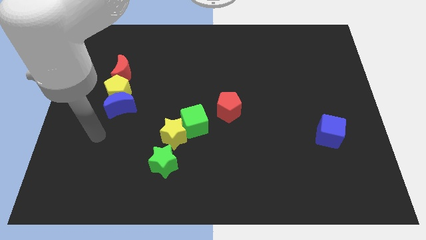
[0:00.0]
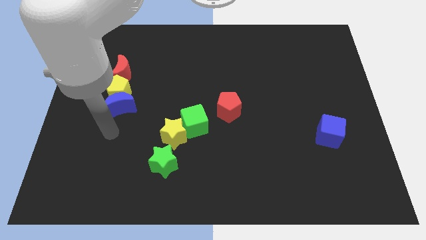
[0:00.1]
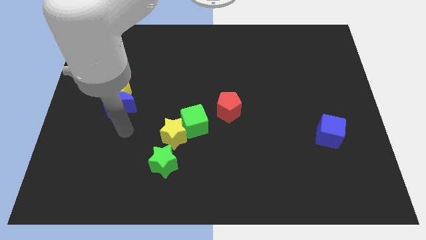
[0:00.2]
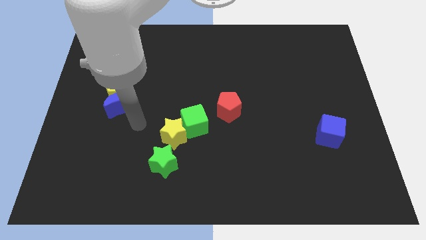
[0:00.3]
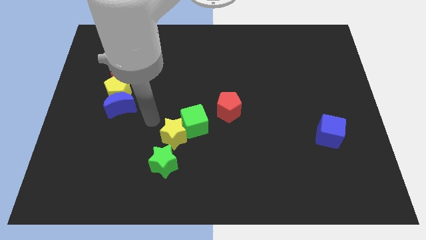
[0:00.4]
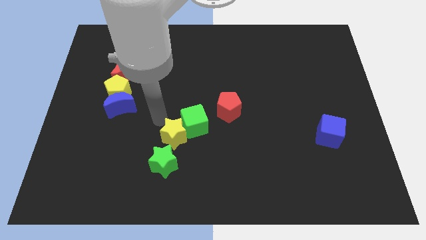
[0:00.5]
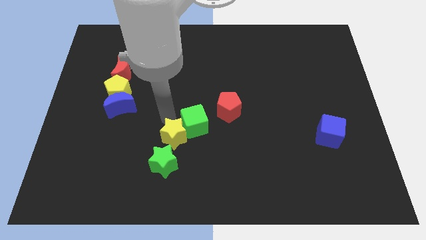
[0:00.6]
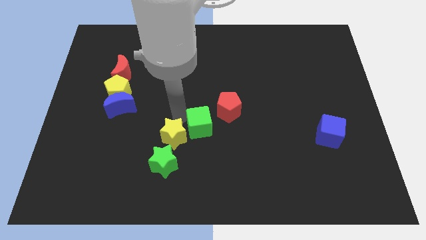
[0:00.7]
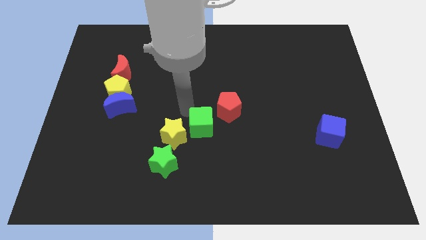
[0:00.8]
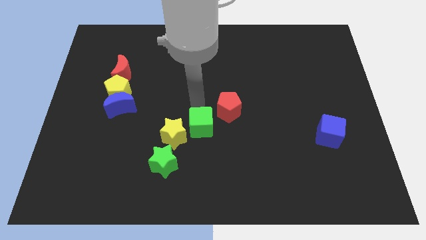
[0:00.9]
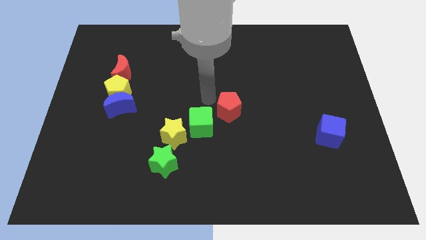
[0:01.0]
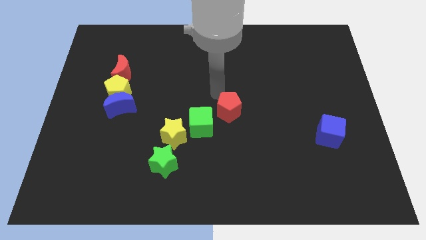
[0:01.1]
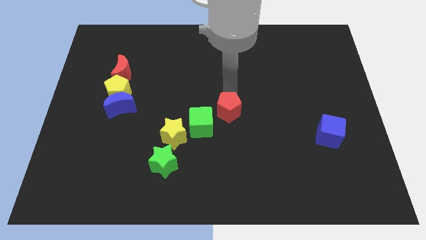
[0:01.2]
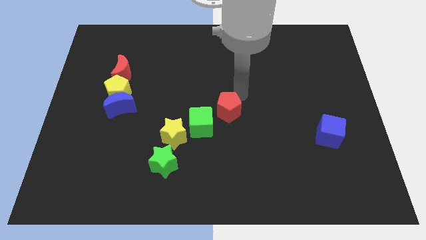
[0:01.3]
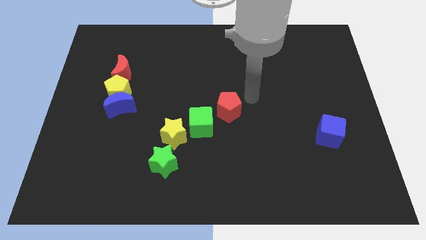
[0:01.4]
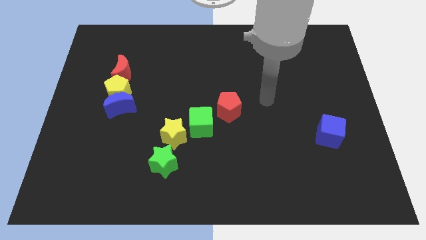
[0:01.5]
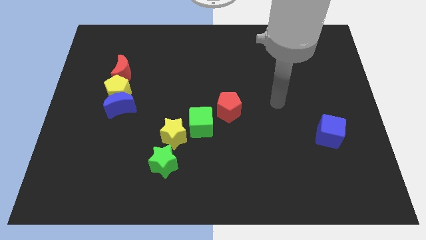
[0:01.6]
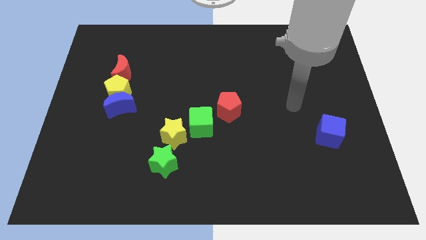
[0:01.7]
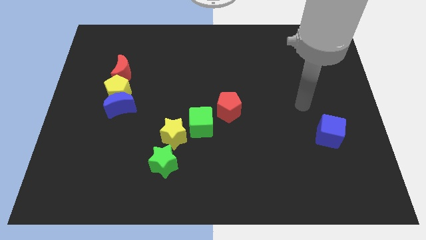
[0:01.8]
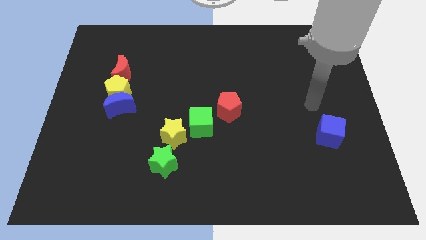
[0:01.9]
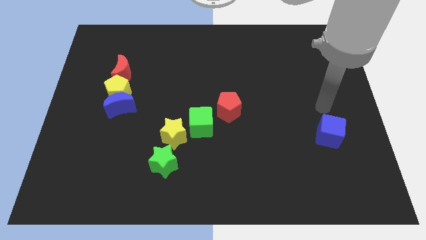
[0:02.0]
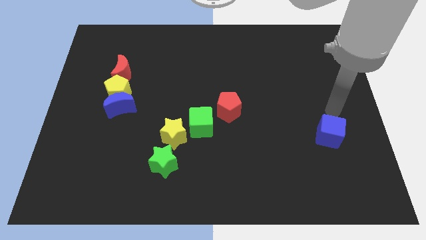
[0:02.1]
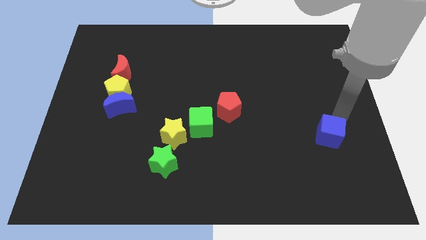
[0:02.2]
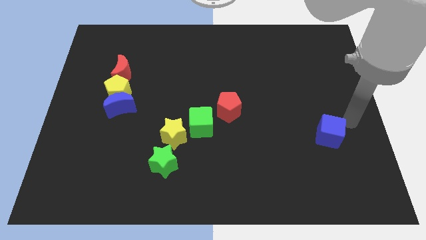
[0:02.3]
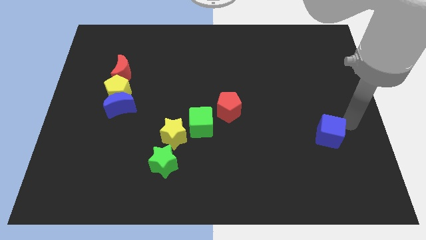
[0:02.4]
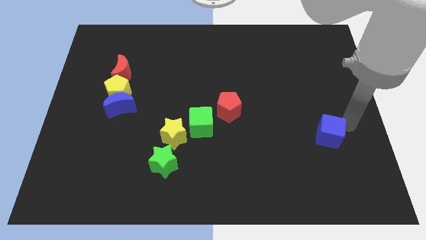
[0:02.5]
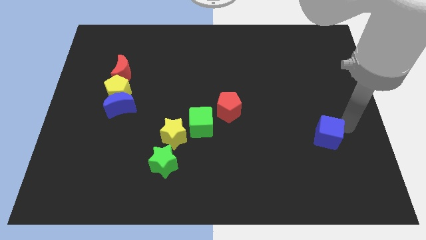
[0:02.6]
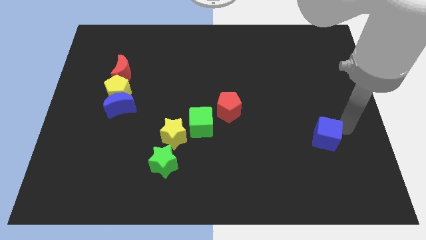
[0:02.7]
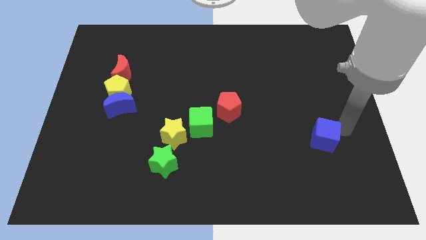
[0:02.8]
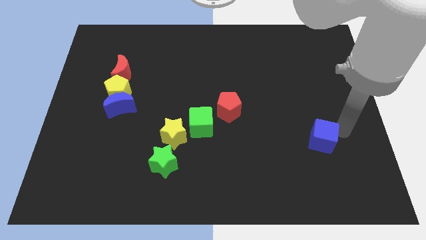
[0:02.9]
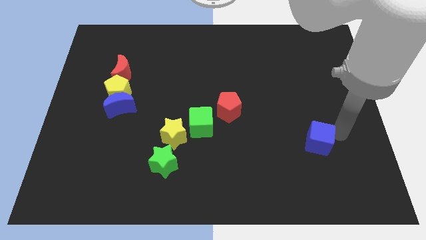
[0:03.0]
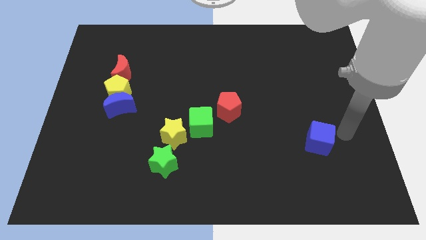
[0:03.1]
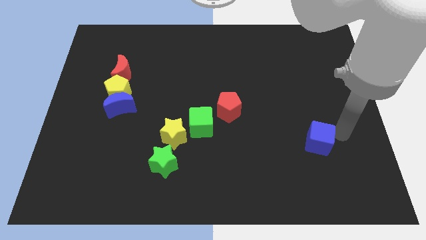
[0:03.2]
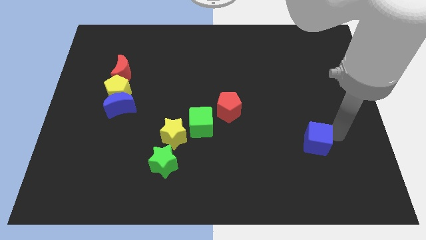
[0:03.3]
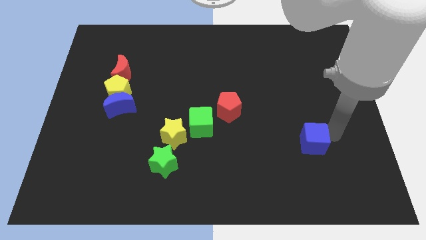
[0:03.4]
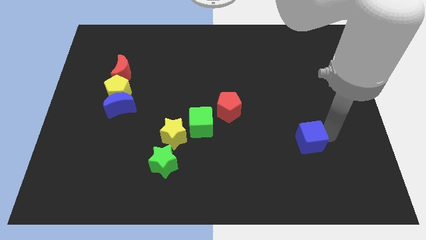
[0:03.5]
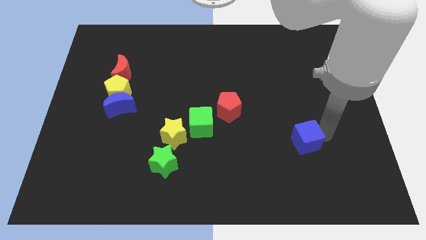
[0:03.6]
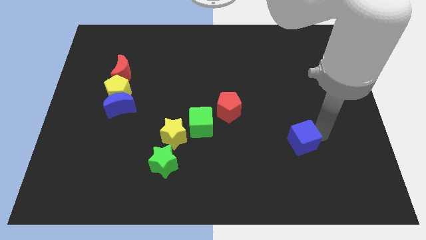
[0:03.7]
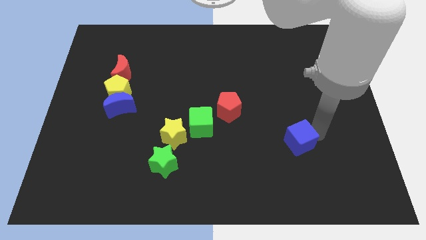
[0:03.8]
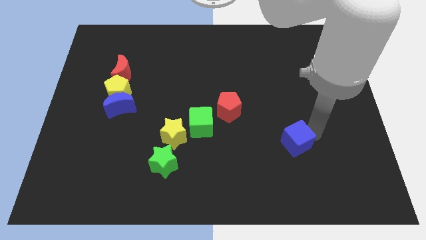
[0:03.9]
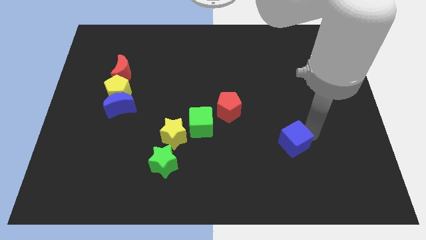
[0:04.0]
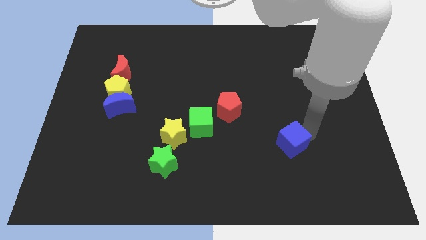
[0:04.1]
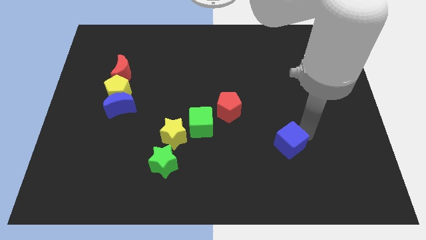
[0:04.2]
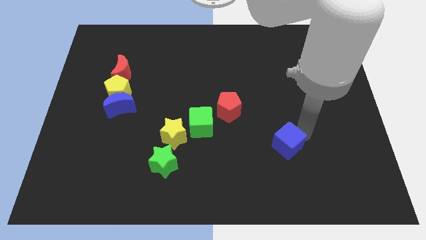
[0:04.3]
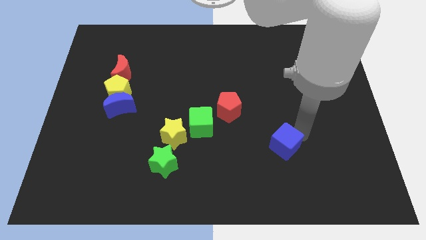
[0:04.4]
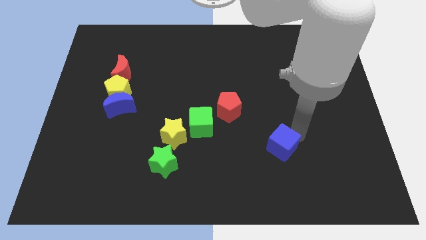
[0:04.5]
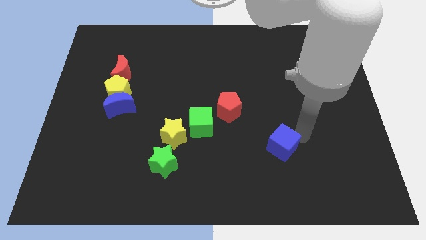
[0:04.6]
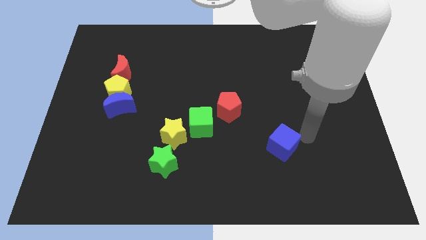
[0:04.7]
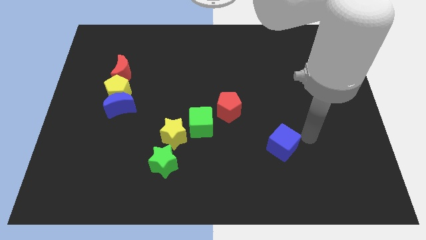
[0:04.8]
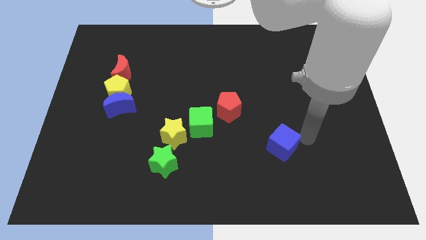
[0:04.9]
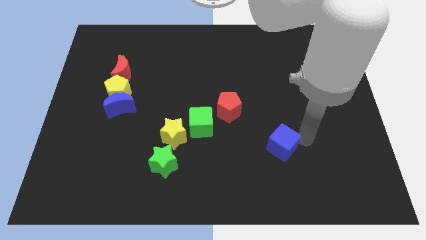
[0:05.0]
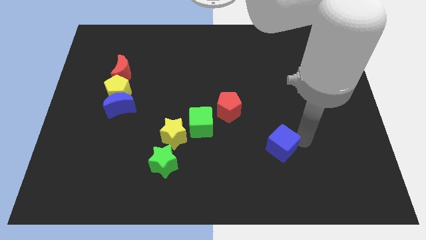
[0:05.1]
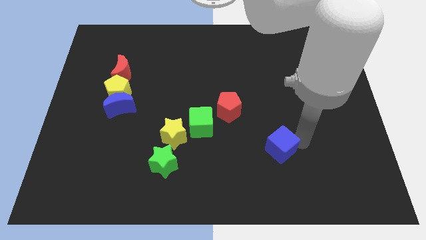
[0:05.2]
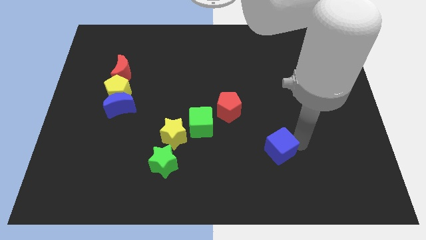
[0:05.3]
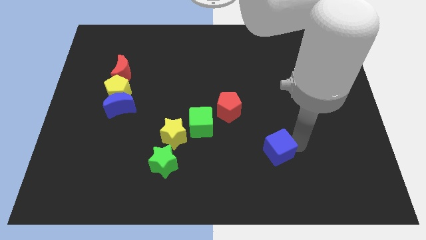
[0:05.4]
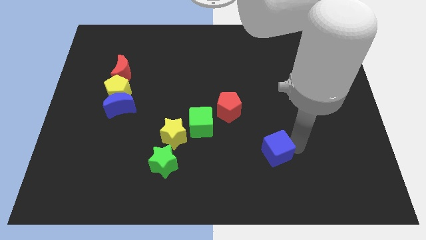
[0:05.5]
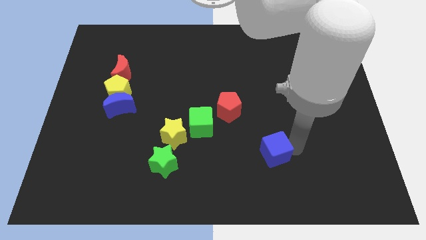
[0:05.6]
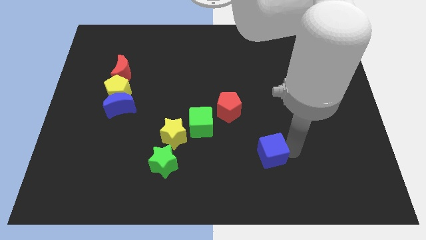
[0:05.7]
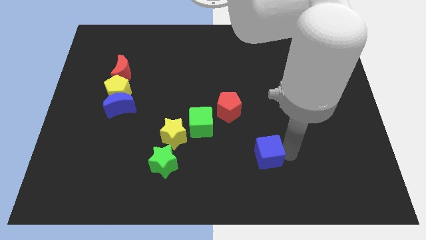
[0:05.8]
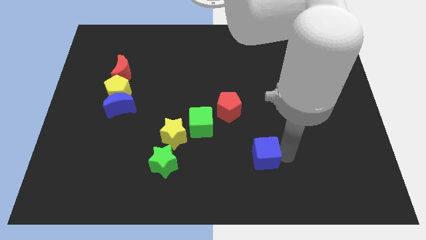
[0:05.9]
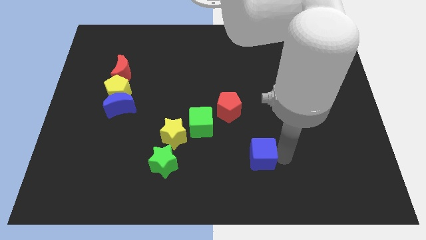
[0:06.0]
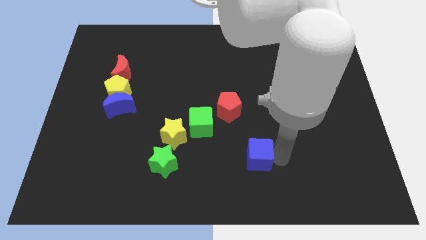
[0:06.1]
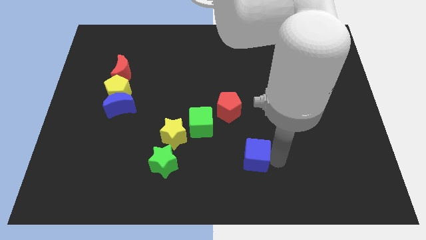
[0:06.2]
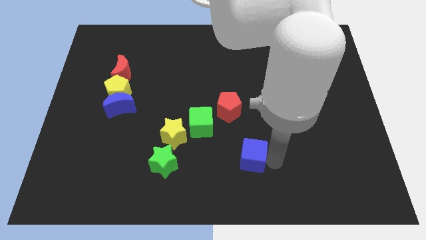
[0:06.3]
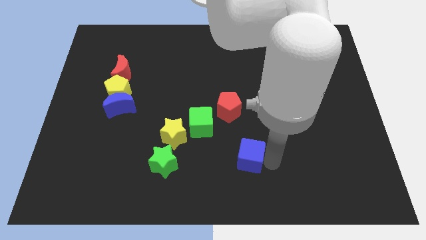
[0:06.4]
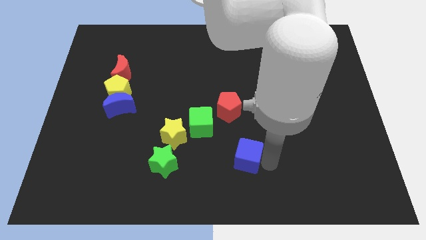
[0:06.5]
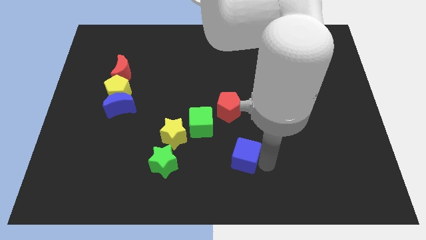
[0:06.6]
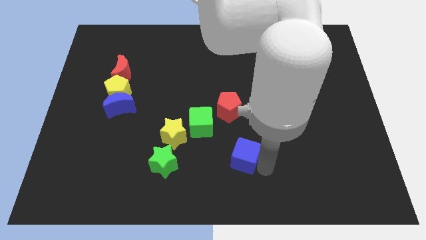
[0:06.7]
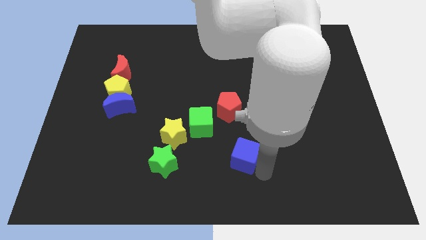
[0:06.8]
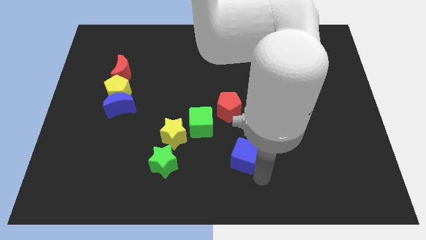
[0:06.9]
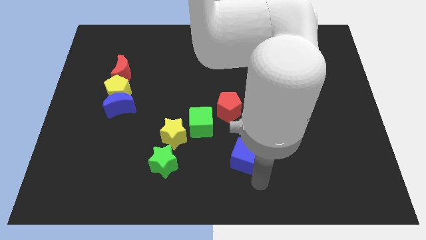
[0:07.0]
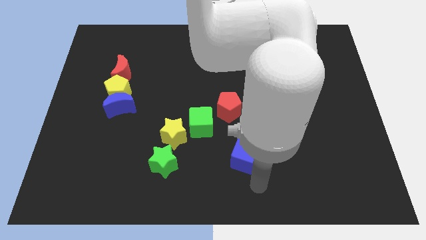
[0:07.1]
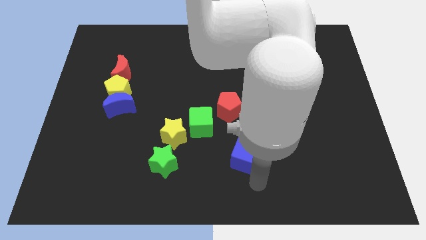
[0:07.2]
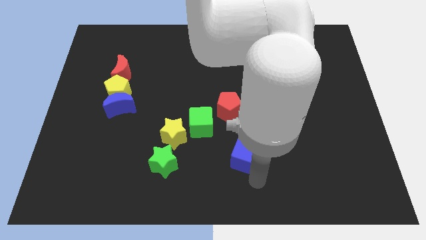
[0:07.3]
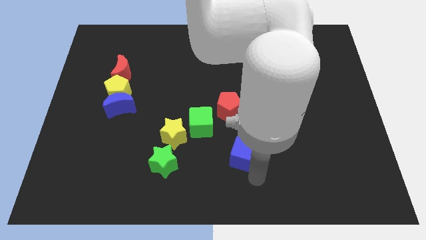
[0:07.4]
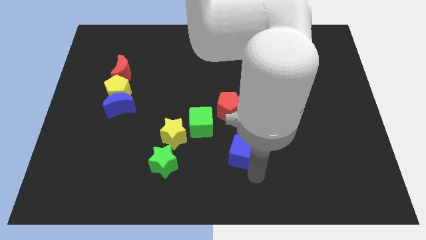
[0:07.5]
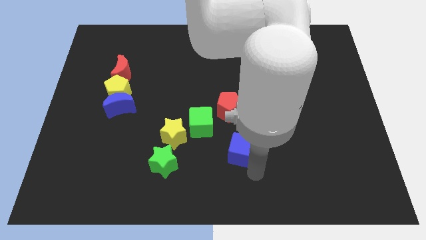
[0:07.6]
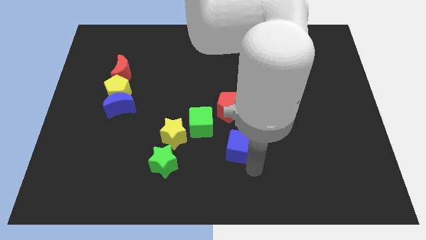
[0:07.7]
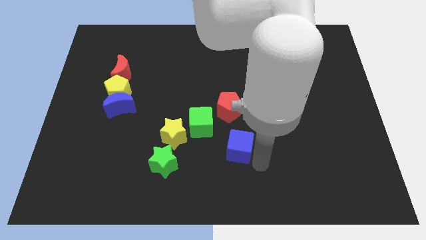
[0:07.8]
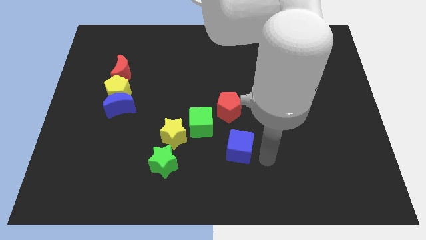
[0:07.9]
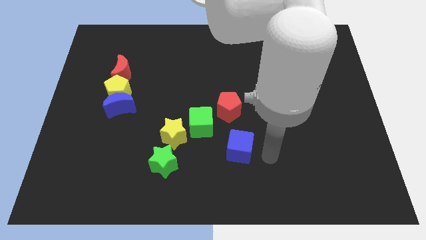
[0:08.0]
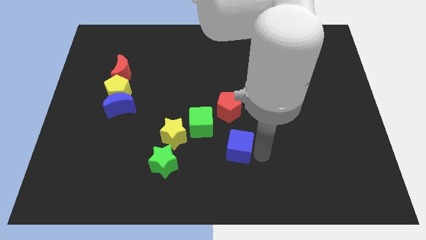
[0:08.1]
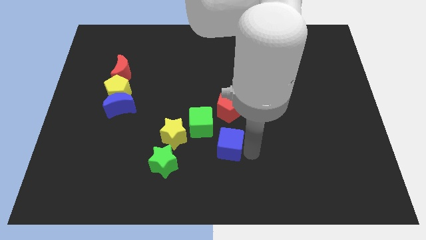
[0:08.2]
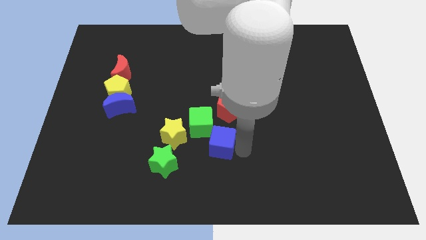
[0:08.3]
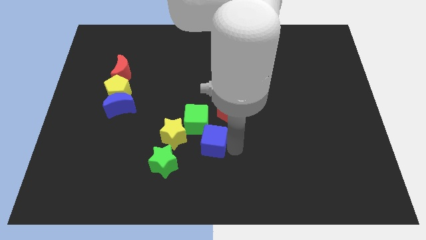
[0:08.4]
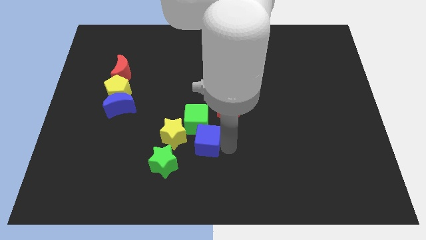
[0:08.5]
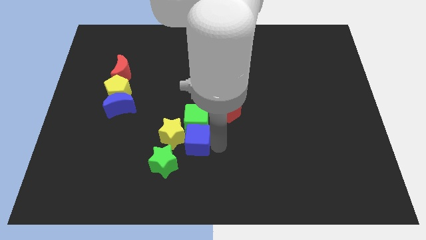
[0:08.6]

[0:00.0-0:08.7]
put the blue cube to the yellow star
